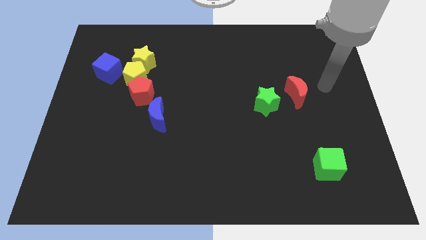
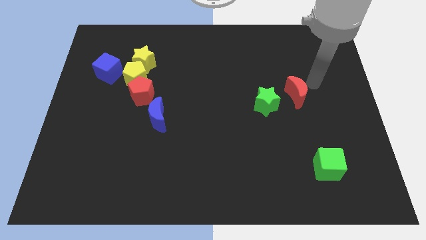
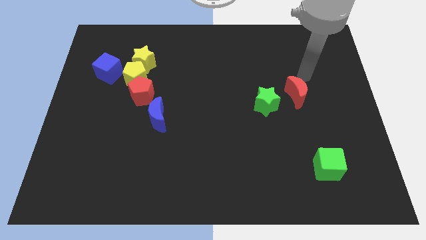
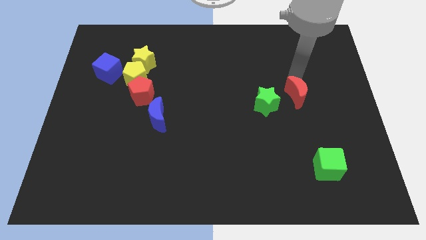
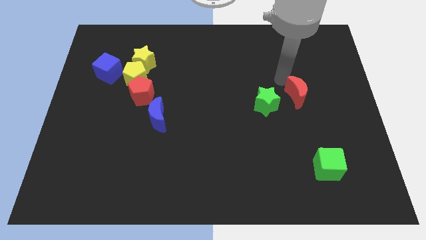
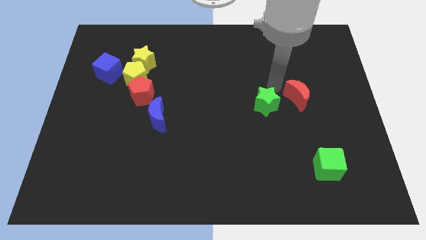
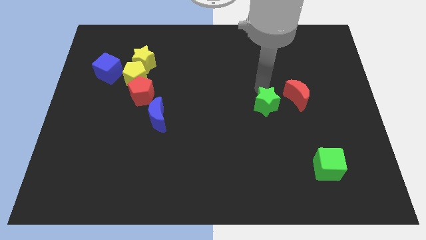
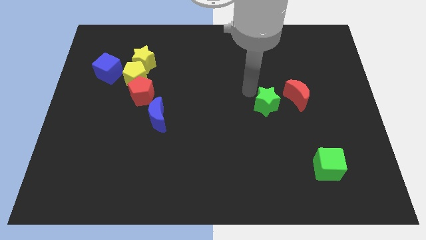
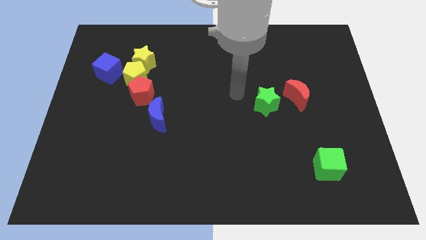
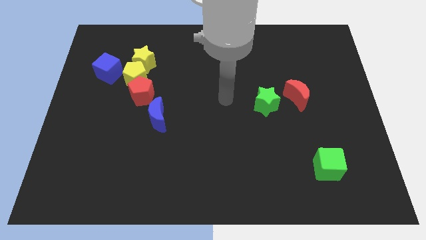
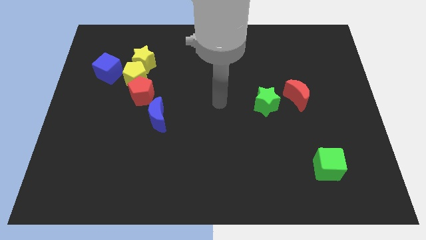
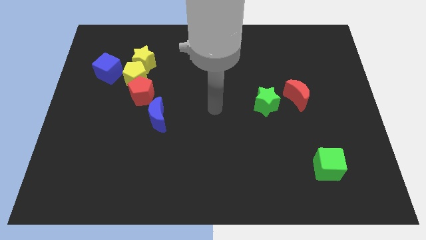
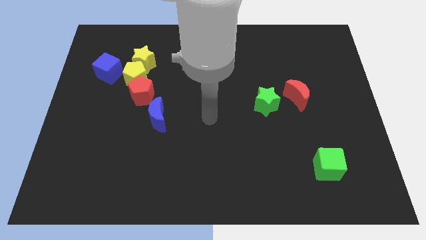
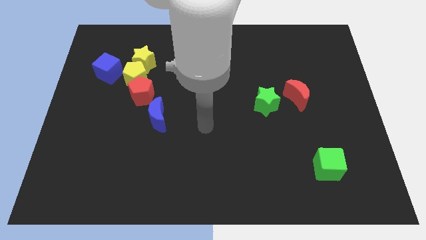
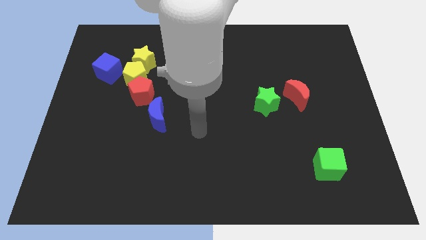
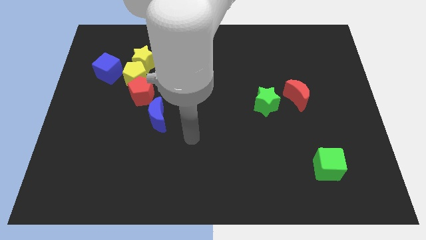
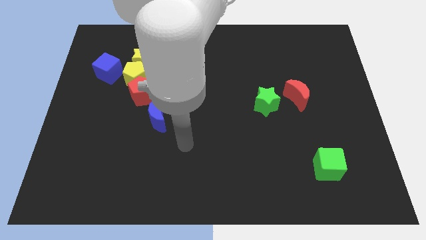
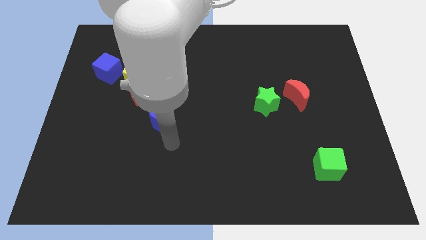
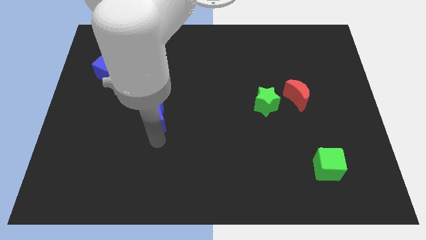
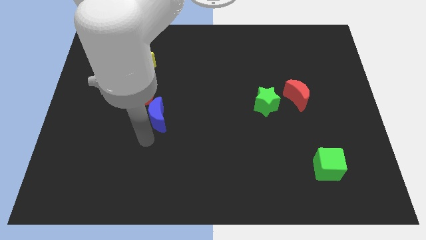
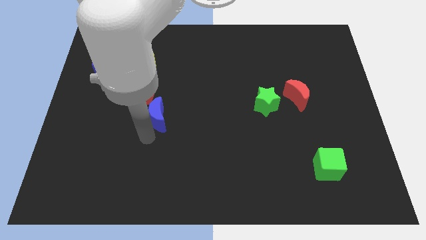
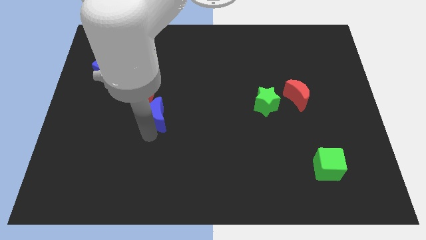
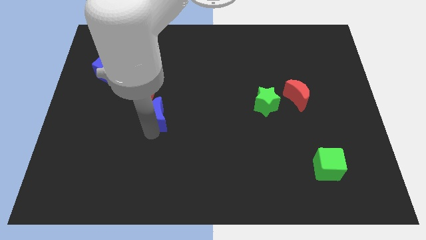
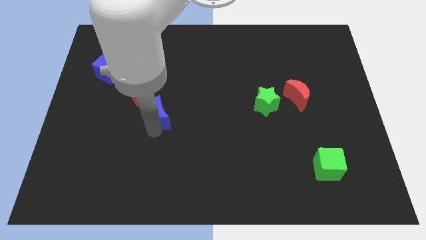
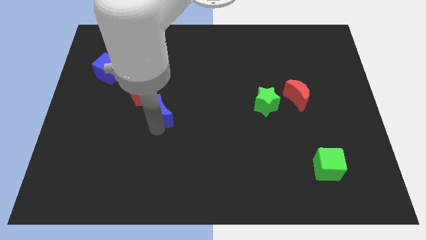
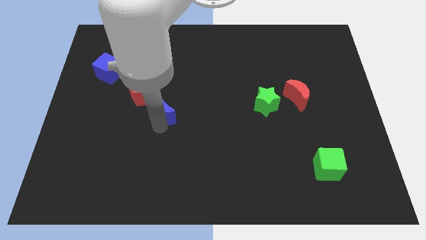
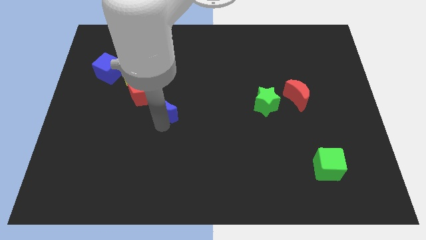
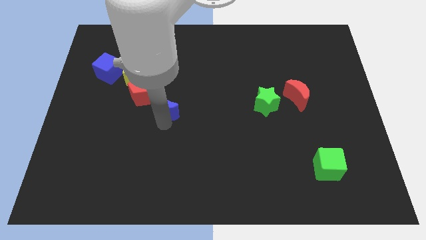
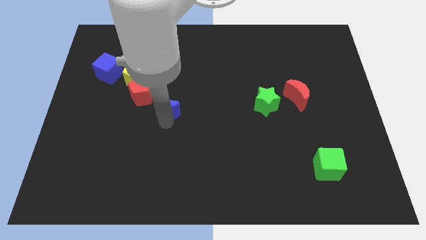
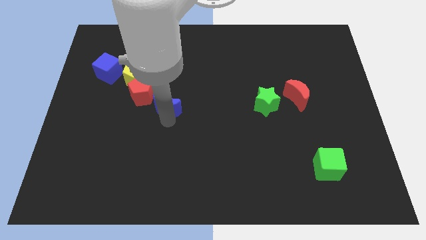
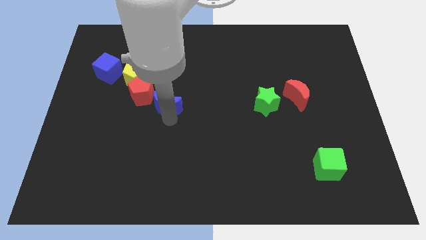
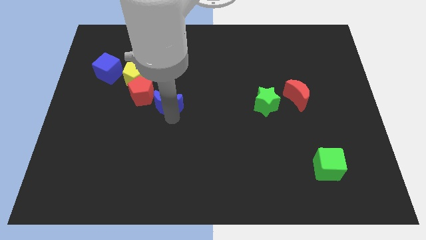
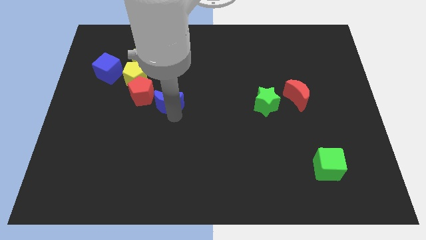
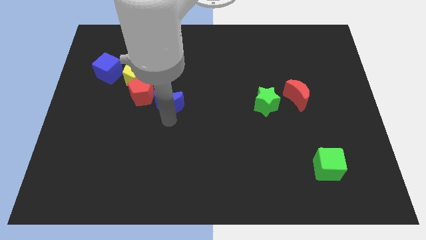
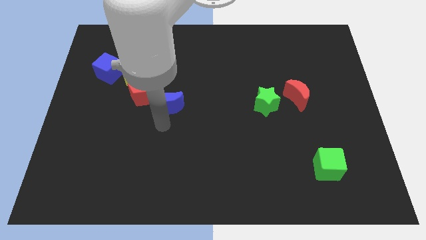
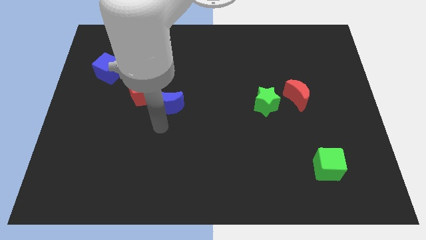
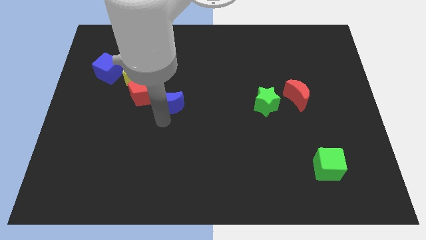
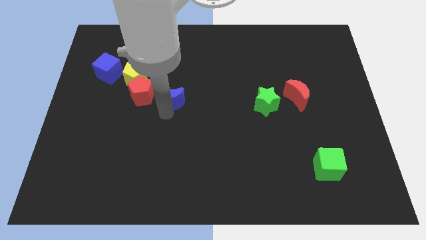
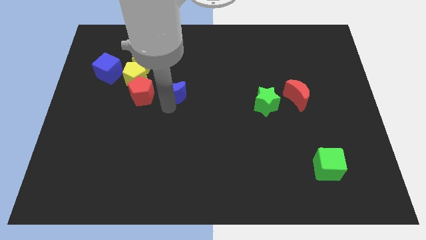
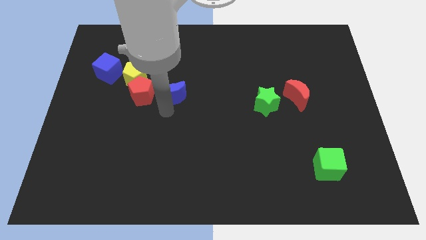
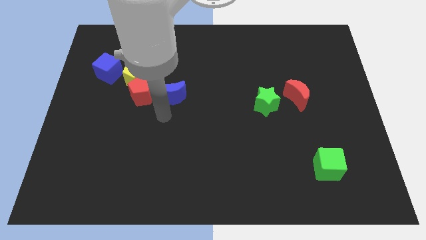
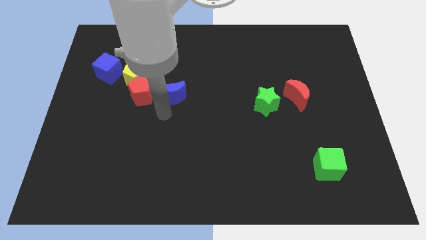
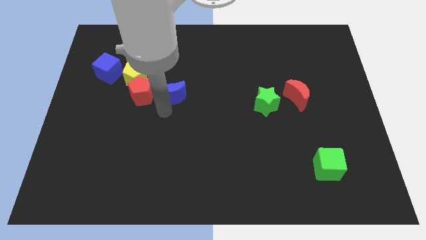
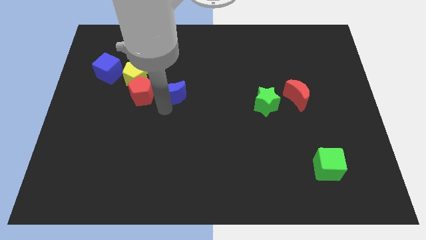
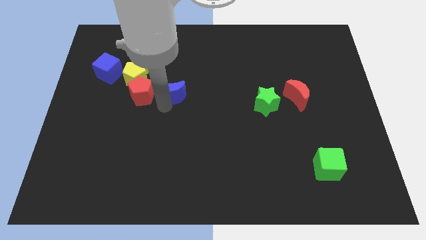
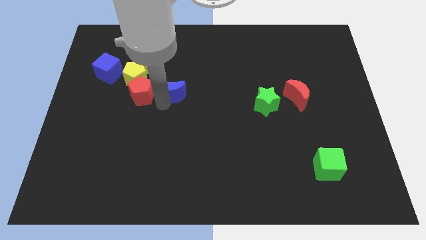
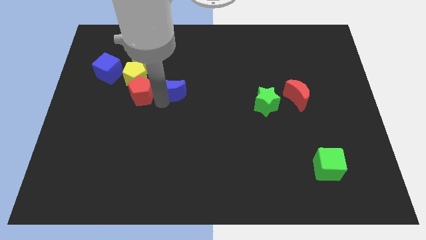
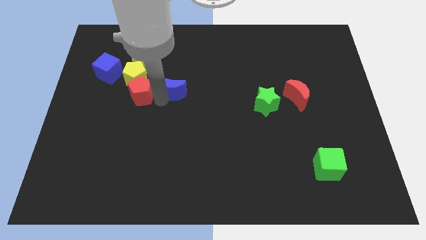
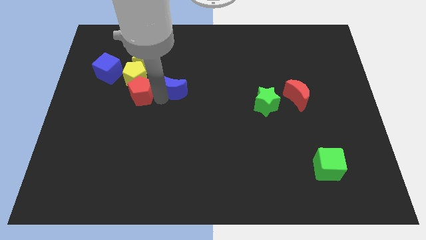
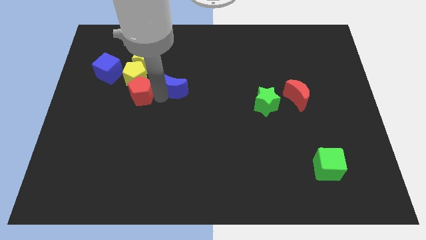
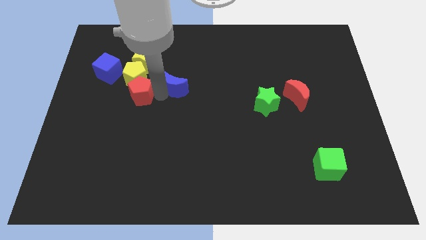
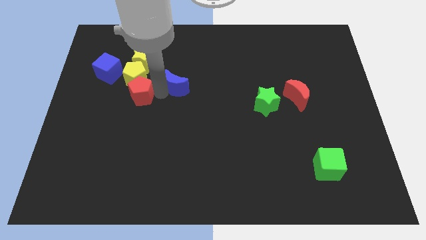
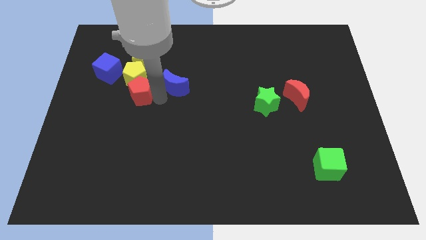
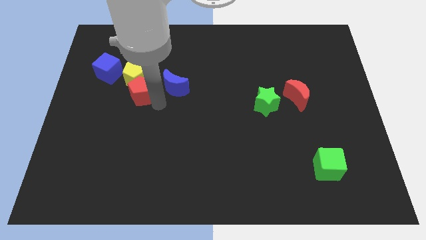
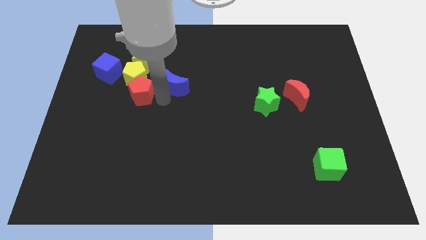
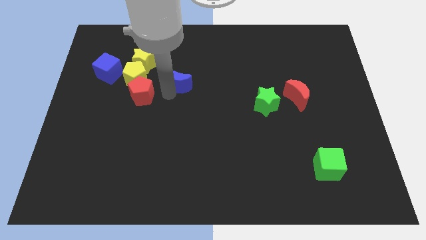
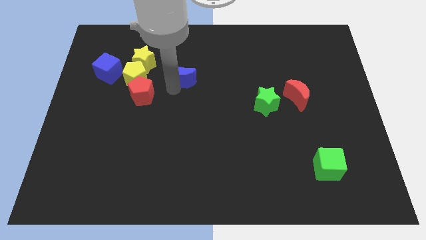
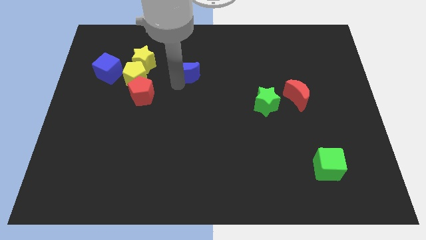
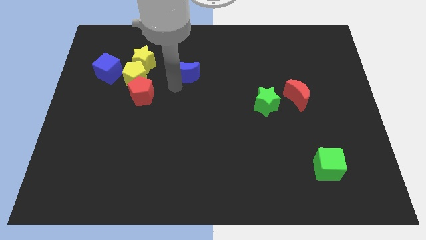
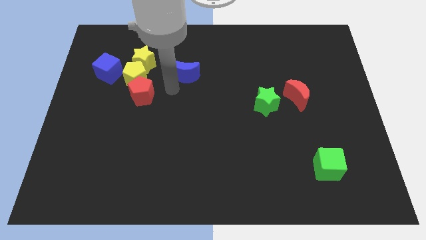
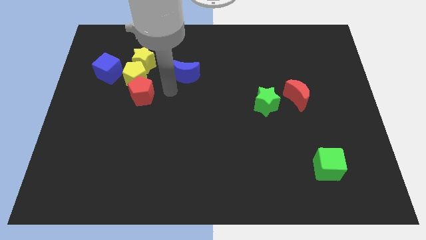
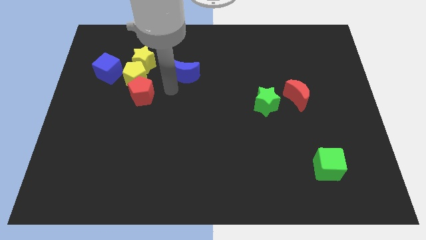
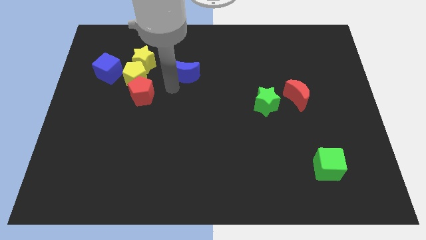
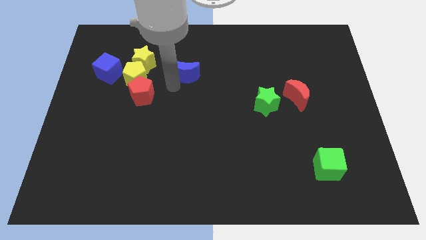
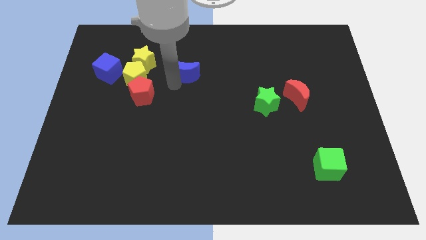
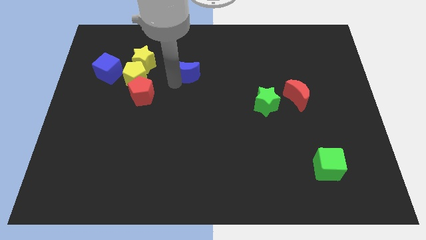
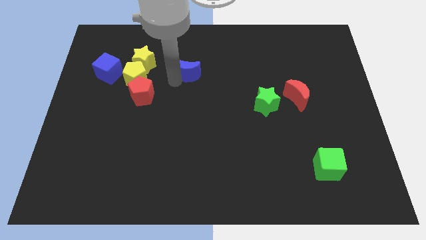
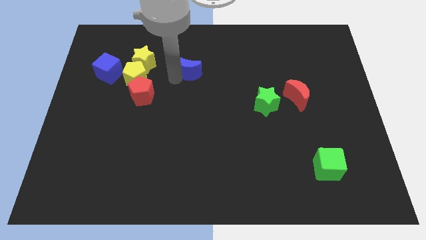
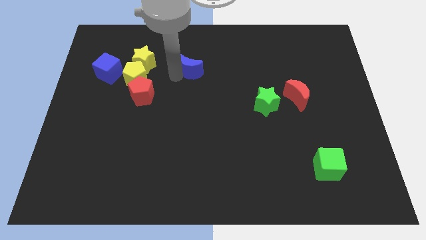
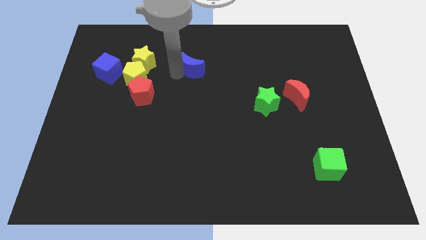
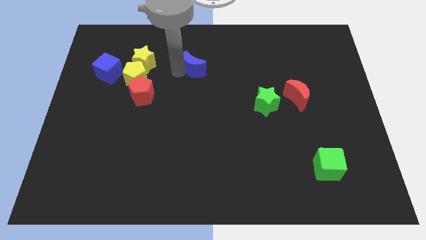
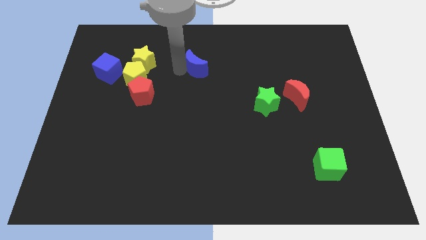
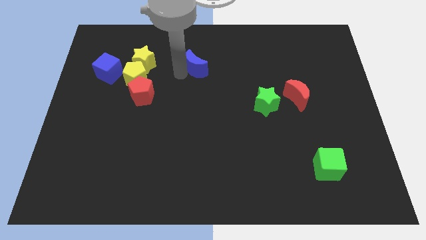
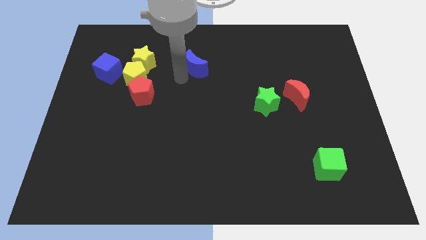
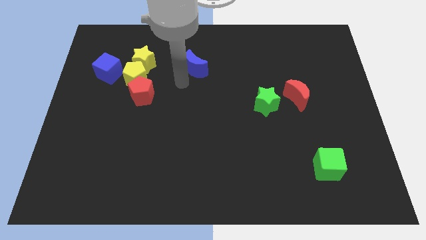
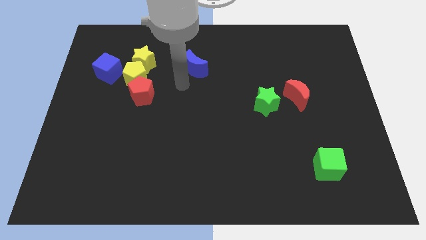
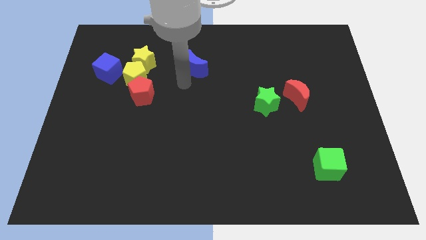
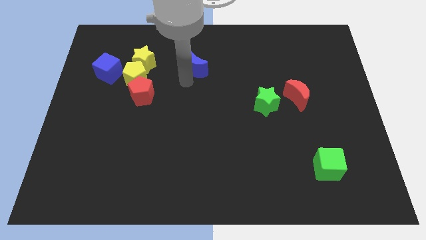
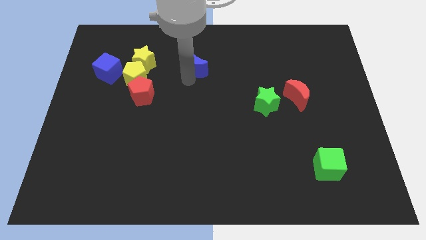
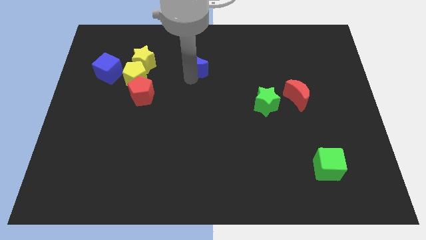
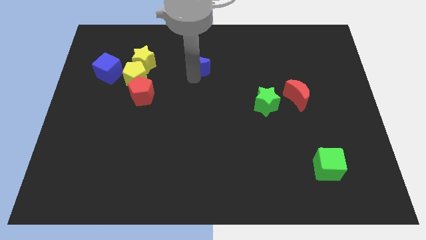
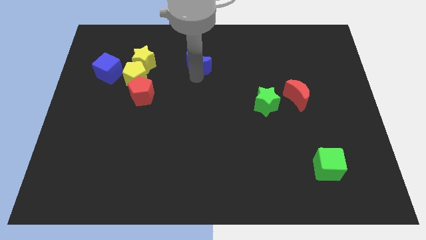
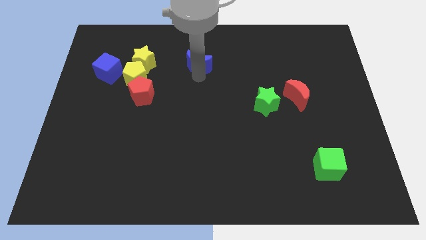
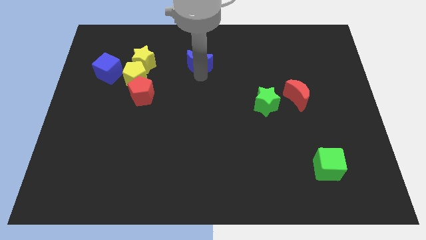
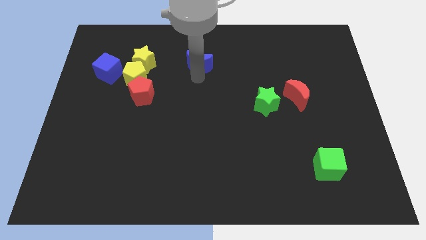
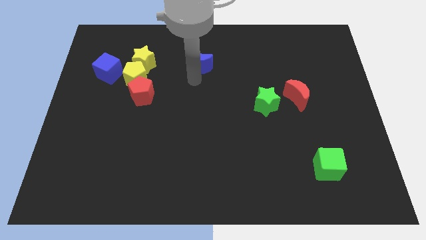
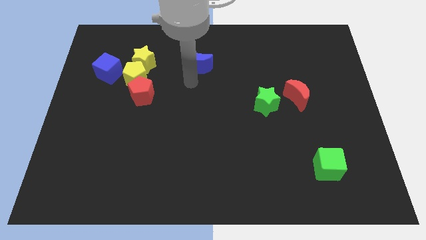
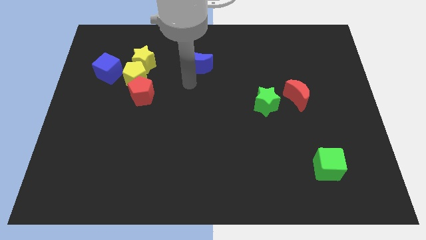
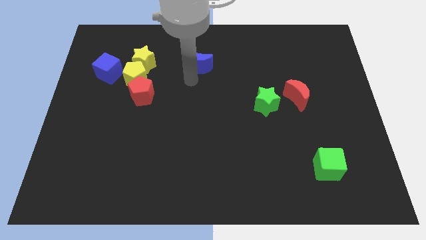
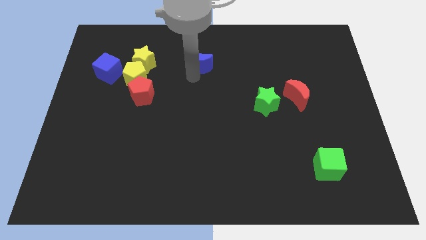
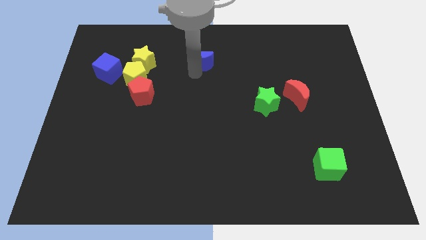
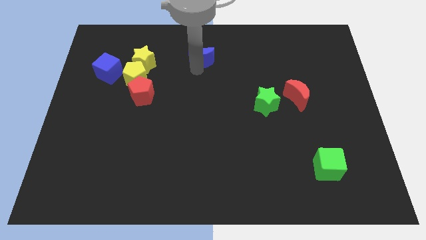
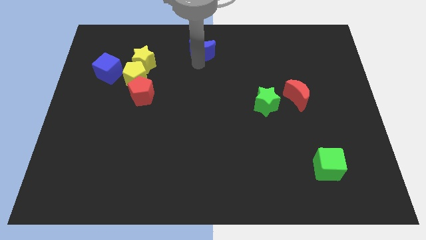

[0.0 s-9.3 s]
push the blue moon to the top side
